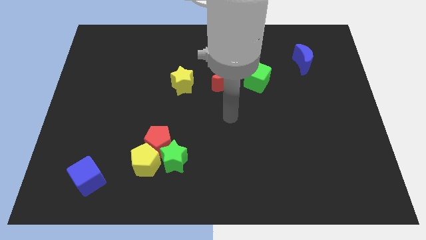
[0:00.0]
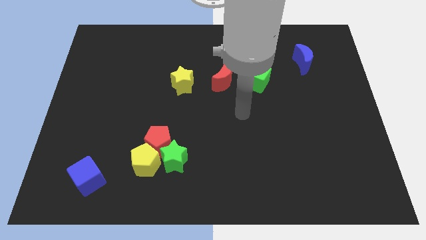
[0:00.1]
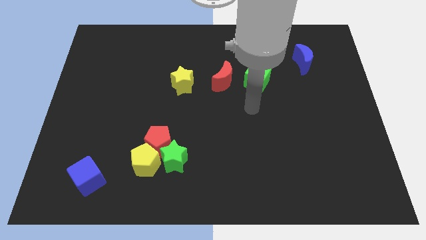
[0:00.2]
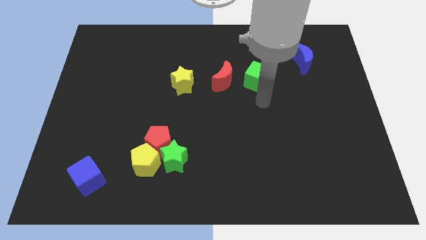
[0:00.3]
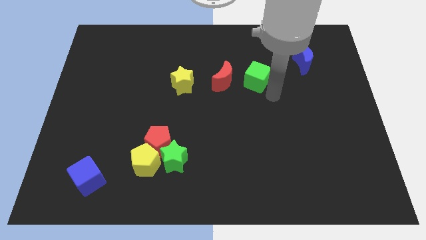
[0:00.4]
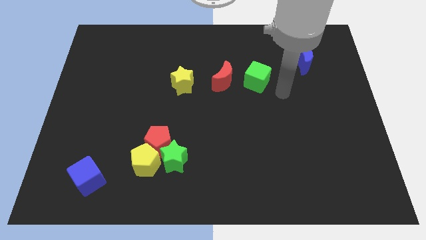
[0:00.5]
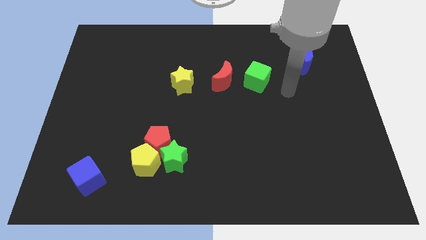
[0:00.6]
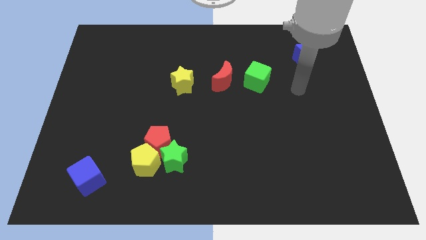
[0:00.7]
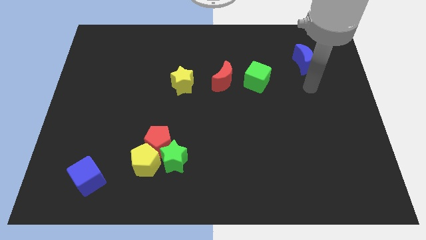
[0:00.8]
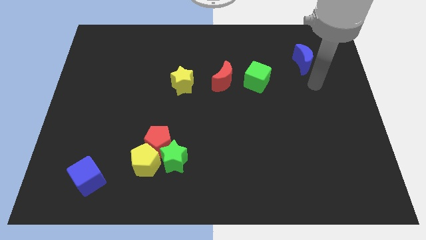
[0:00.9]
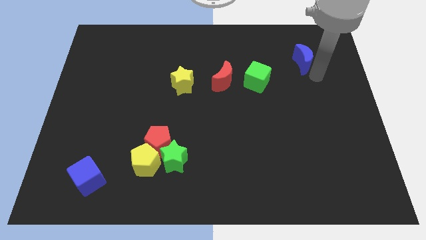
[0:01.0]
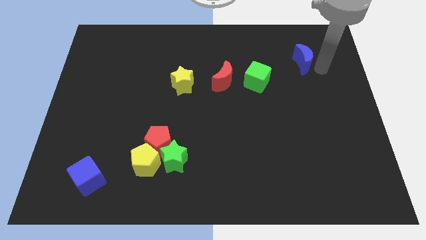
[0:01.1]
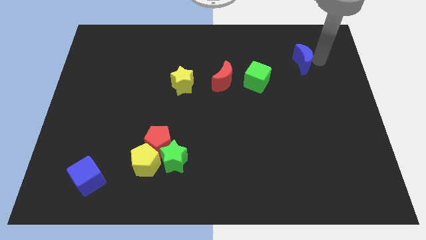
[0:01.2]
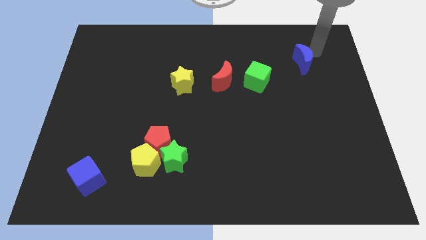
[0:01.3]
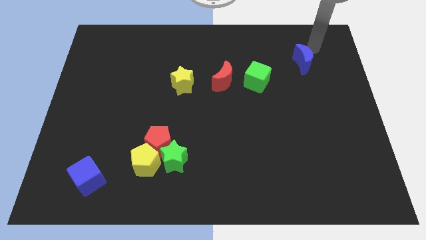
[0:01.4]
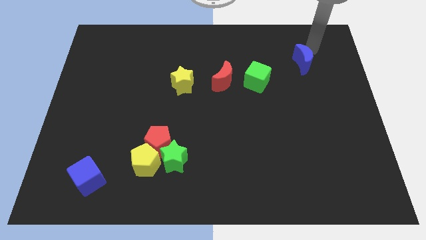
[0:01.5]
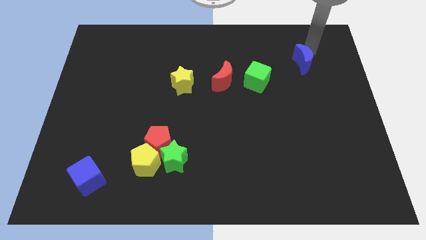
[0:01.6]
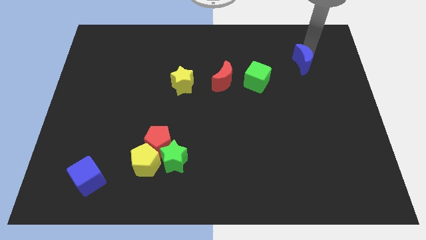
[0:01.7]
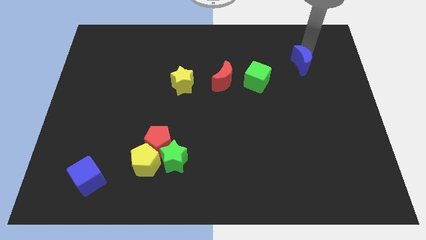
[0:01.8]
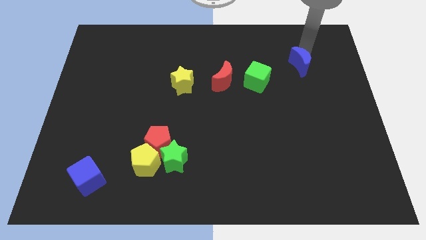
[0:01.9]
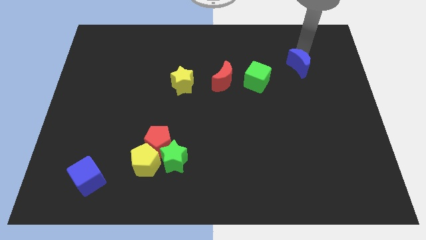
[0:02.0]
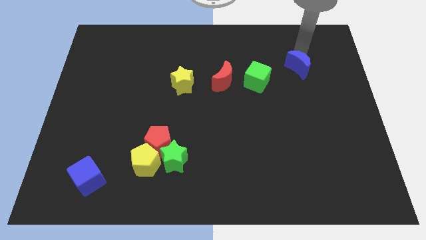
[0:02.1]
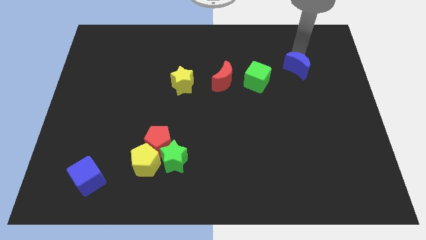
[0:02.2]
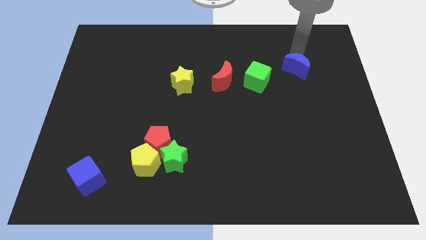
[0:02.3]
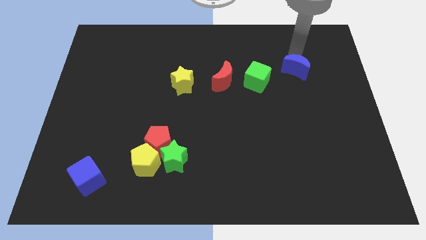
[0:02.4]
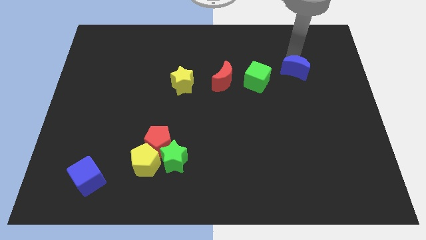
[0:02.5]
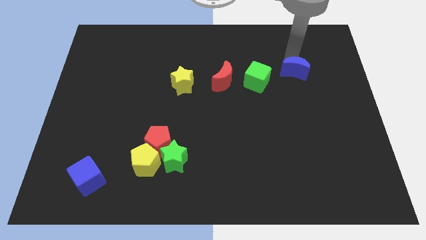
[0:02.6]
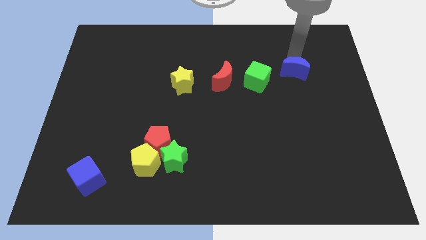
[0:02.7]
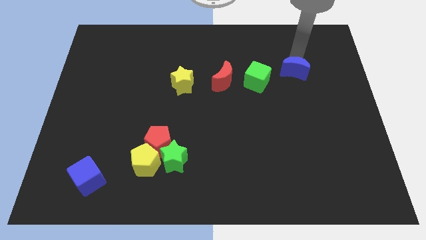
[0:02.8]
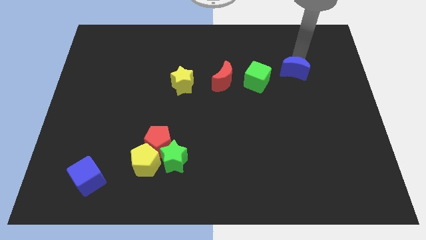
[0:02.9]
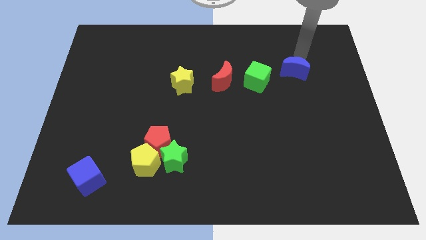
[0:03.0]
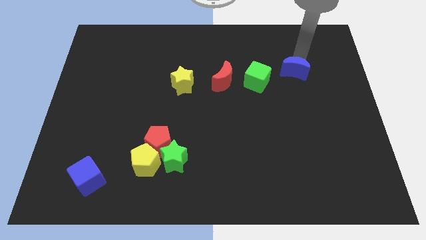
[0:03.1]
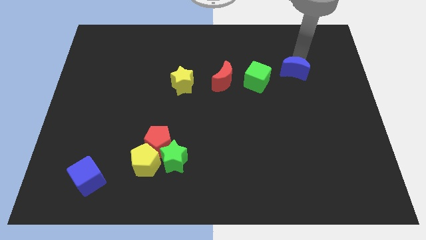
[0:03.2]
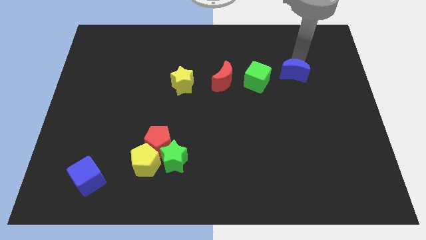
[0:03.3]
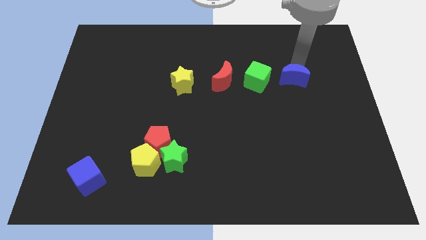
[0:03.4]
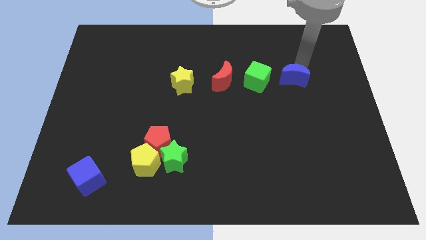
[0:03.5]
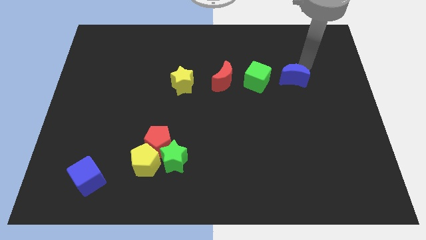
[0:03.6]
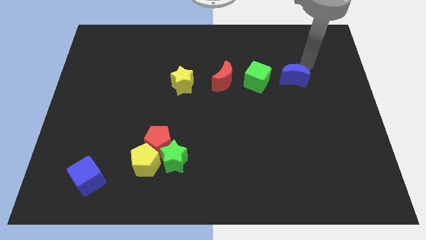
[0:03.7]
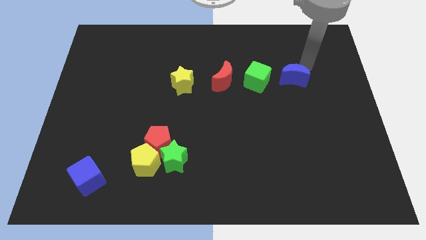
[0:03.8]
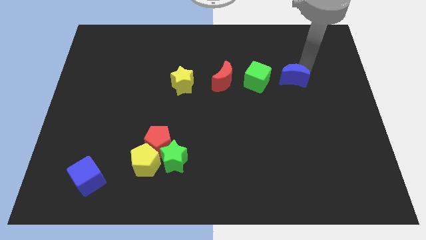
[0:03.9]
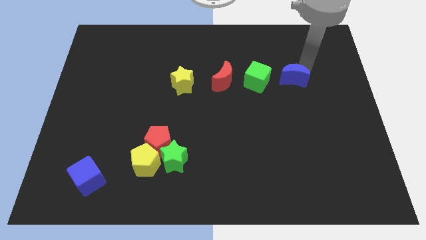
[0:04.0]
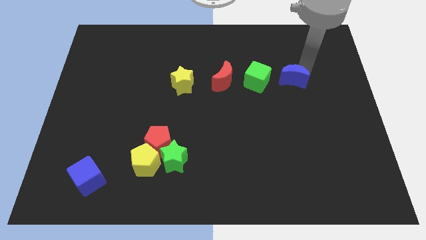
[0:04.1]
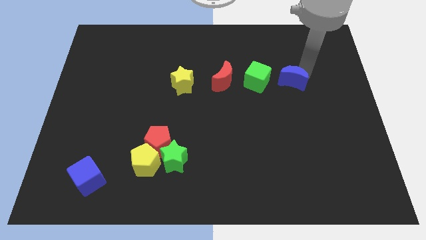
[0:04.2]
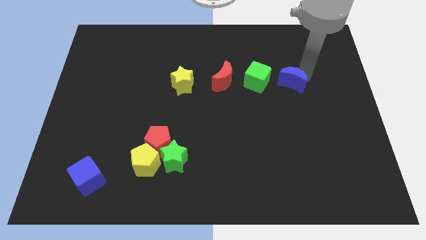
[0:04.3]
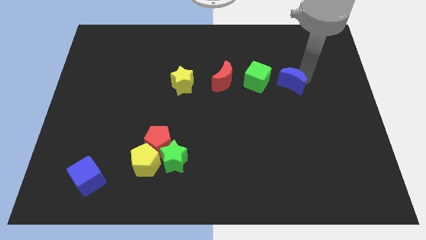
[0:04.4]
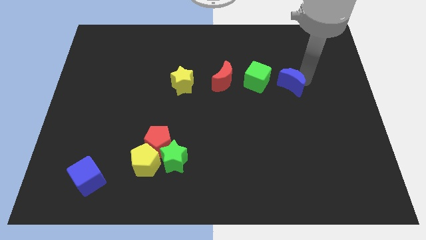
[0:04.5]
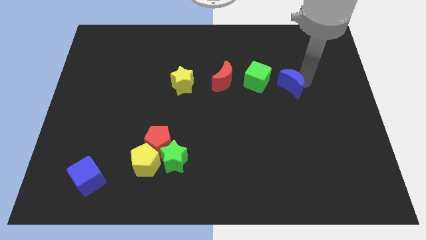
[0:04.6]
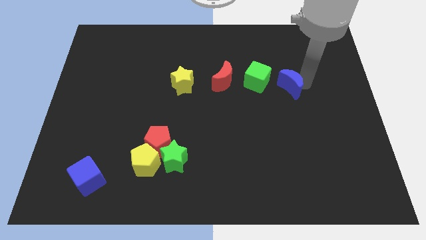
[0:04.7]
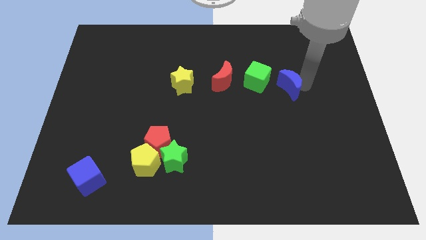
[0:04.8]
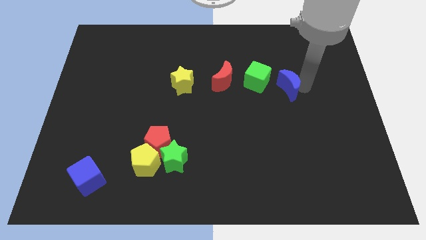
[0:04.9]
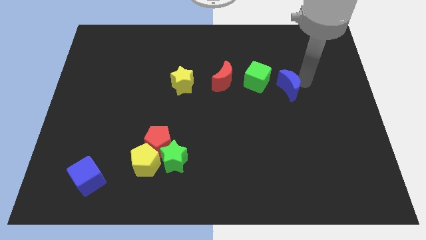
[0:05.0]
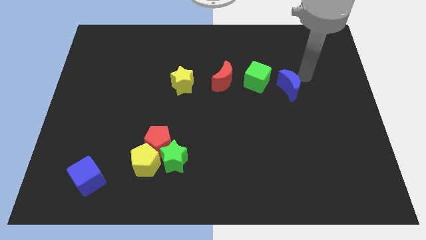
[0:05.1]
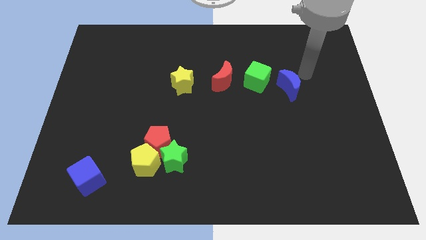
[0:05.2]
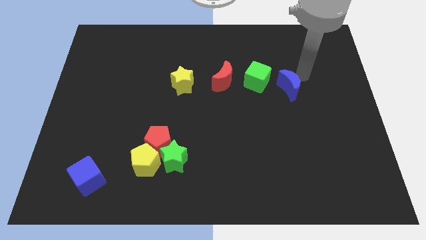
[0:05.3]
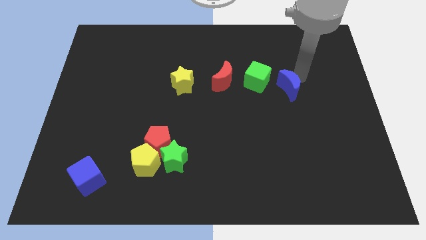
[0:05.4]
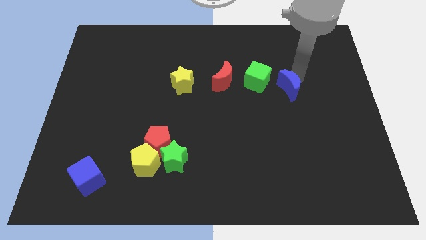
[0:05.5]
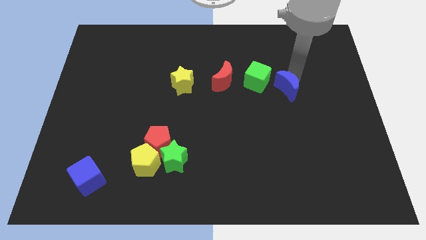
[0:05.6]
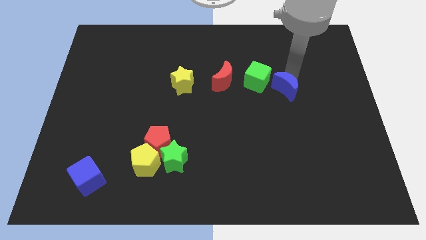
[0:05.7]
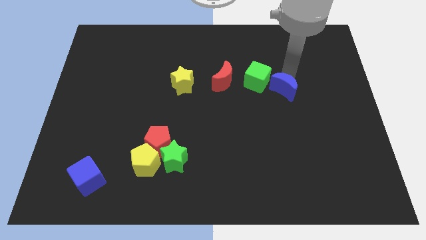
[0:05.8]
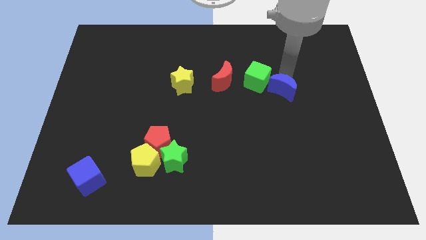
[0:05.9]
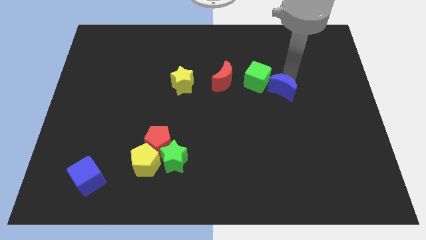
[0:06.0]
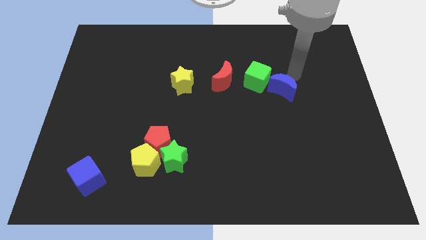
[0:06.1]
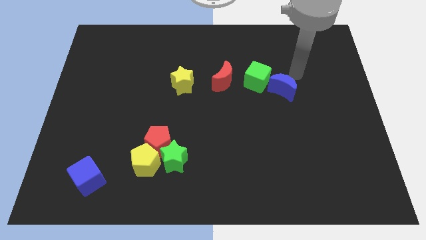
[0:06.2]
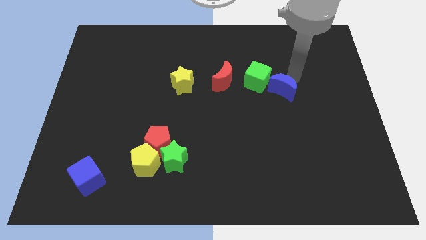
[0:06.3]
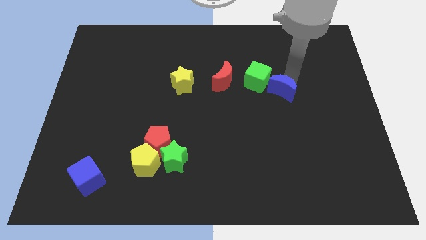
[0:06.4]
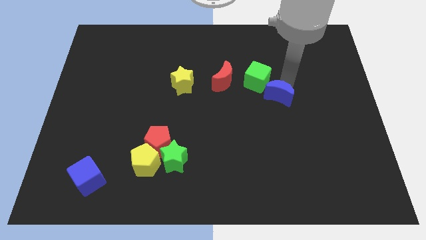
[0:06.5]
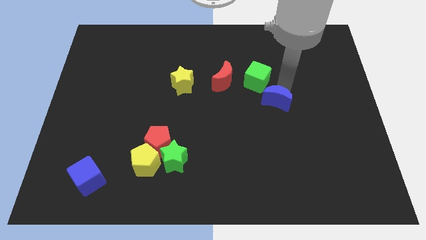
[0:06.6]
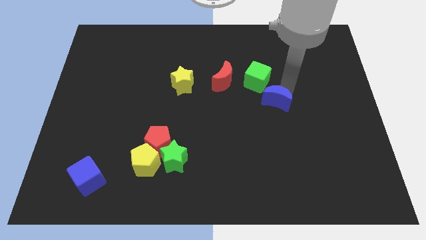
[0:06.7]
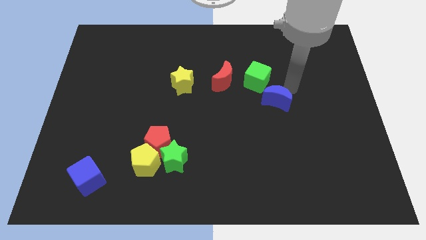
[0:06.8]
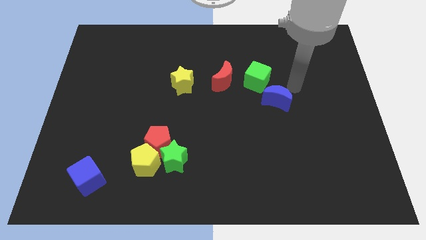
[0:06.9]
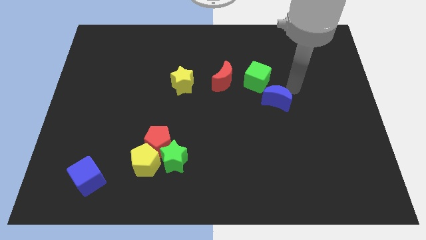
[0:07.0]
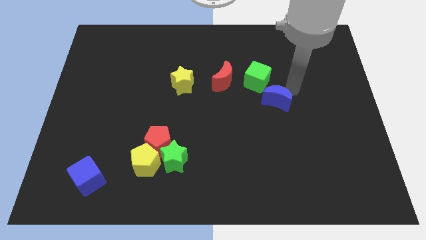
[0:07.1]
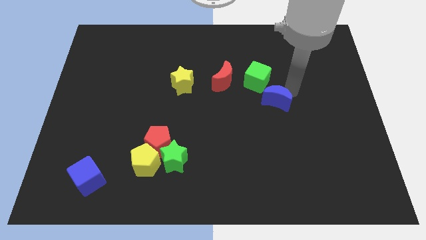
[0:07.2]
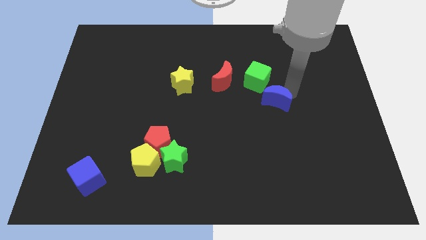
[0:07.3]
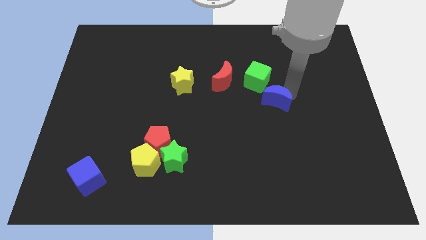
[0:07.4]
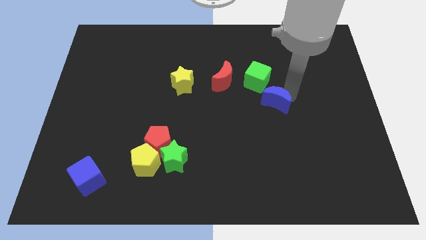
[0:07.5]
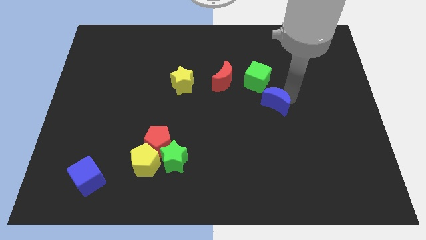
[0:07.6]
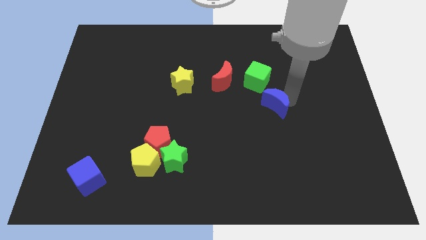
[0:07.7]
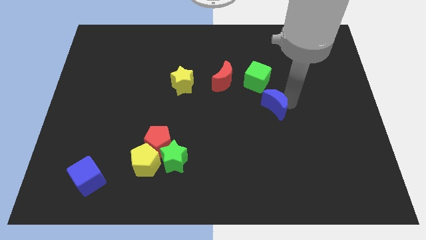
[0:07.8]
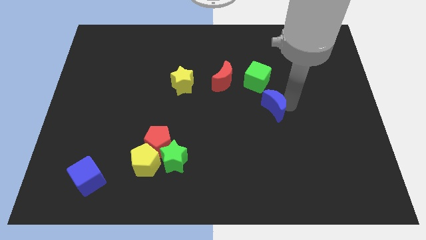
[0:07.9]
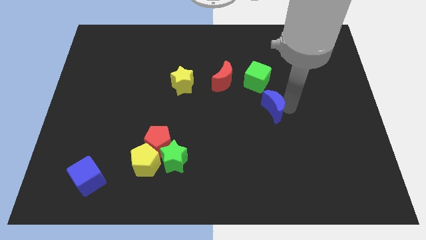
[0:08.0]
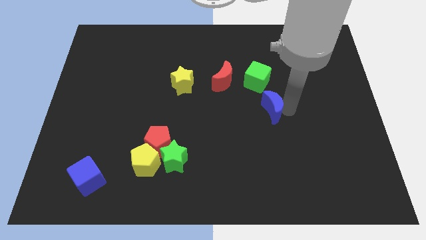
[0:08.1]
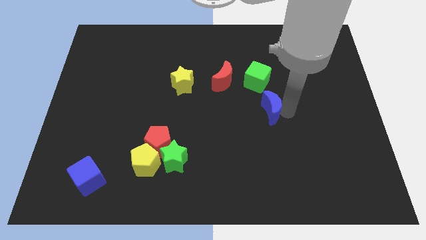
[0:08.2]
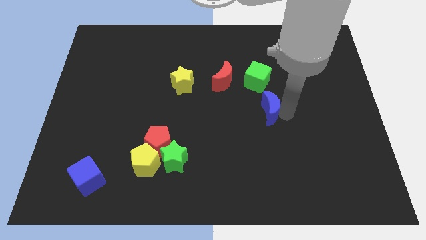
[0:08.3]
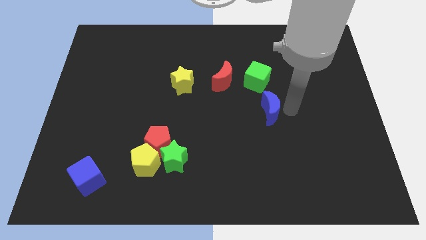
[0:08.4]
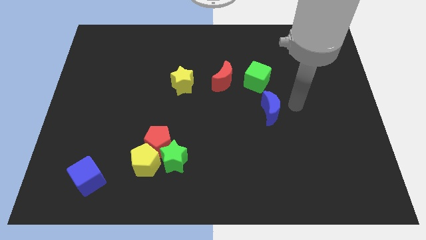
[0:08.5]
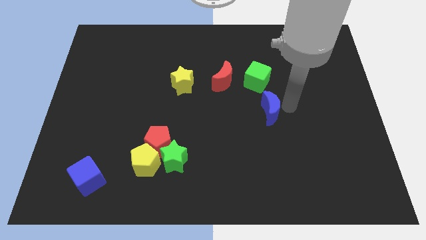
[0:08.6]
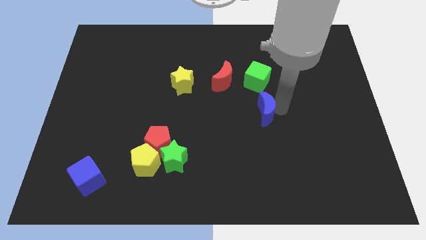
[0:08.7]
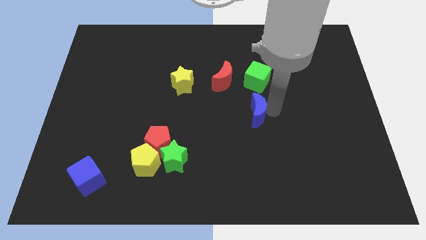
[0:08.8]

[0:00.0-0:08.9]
slide the blue moon diagonally down and to the left
